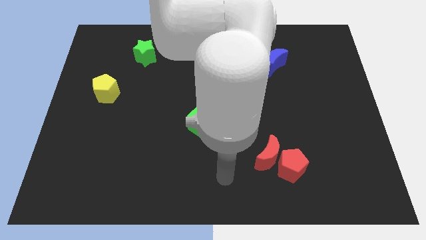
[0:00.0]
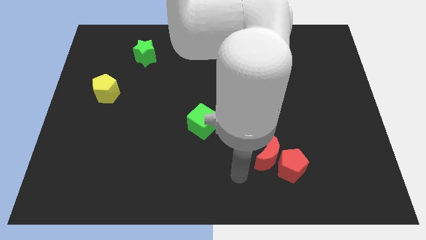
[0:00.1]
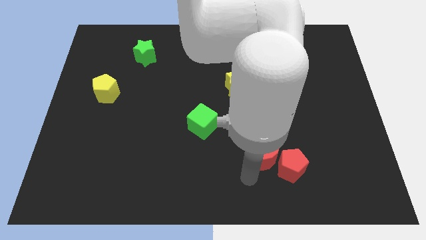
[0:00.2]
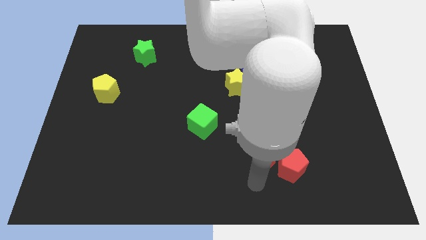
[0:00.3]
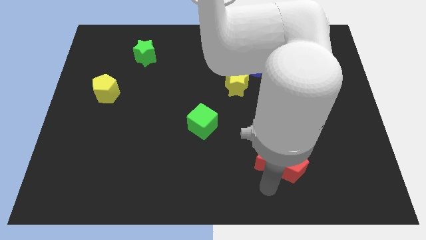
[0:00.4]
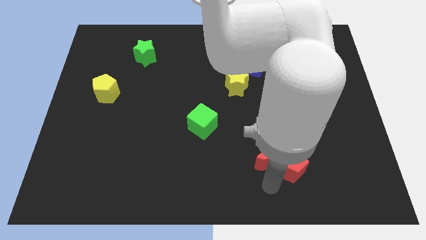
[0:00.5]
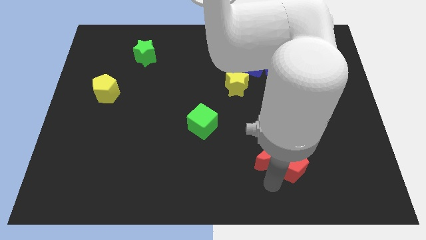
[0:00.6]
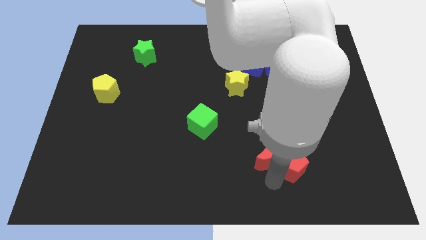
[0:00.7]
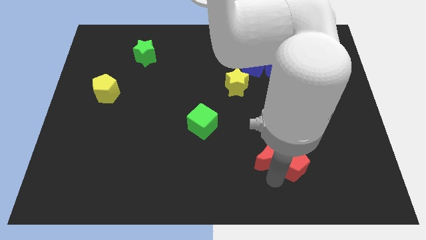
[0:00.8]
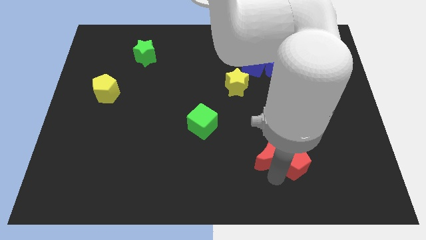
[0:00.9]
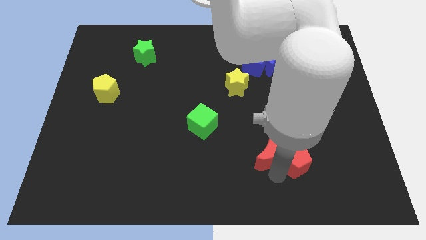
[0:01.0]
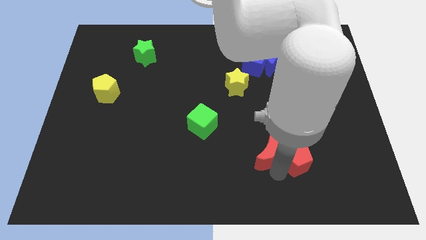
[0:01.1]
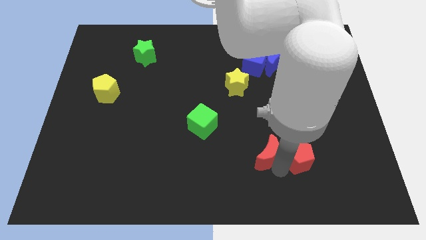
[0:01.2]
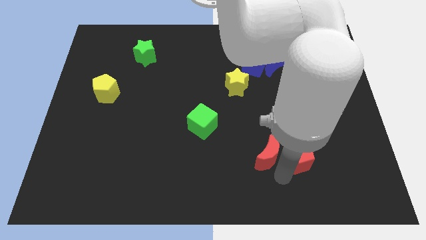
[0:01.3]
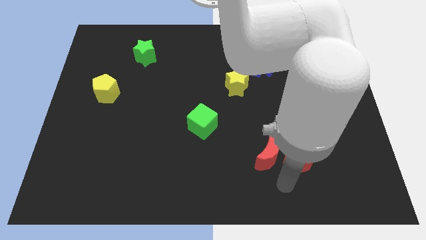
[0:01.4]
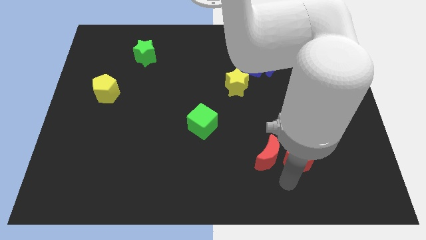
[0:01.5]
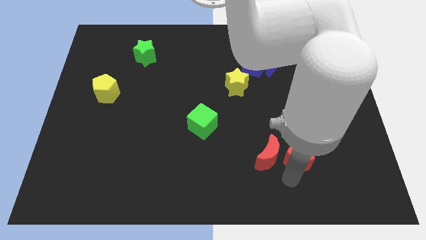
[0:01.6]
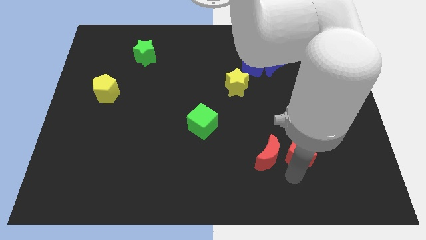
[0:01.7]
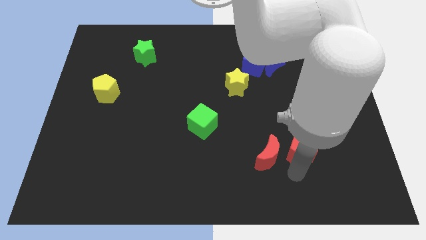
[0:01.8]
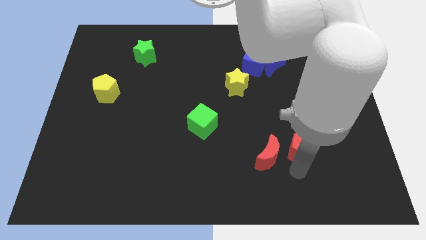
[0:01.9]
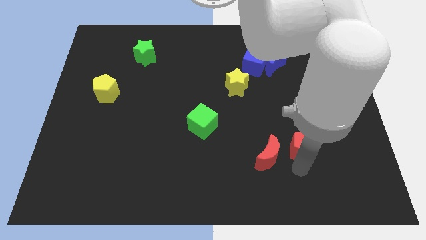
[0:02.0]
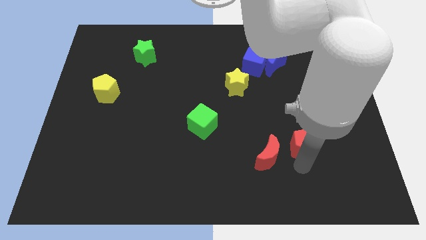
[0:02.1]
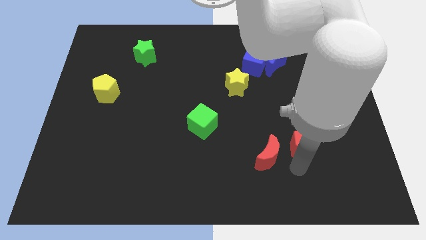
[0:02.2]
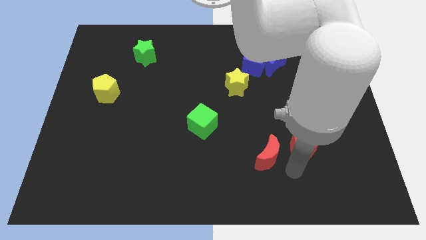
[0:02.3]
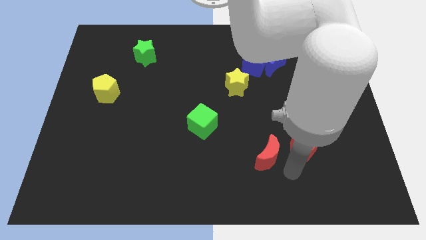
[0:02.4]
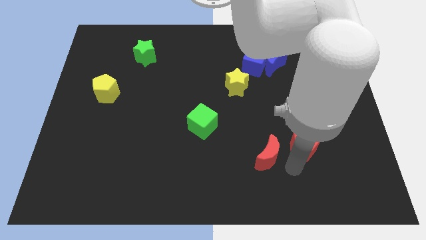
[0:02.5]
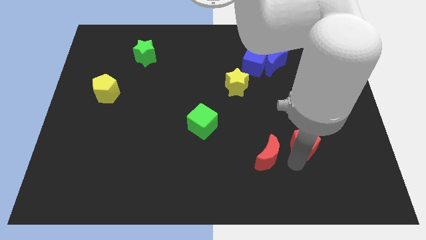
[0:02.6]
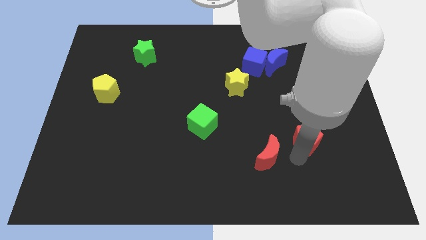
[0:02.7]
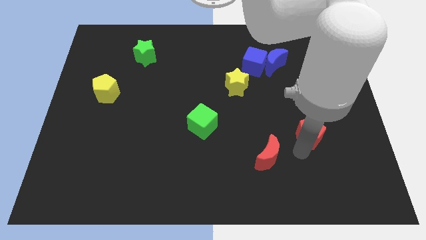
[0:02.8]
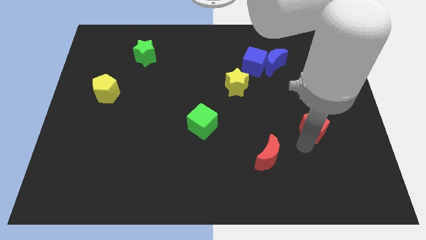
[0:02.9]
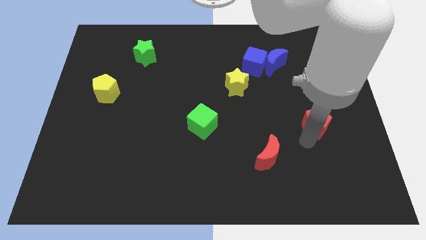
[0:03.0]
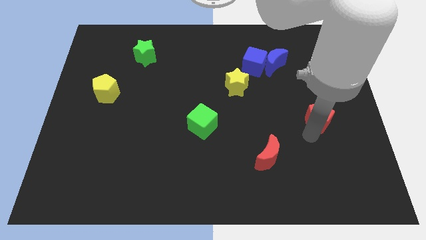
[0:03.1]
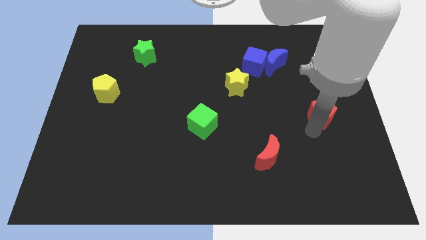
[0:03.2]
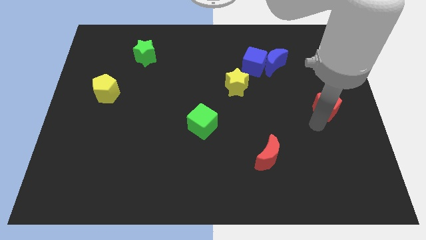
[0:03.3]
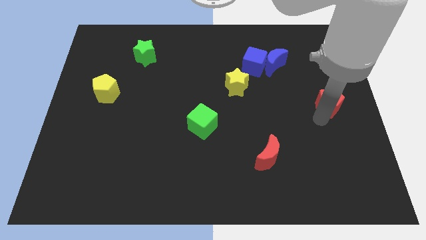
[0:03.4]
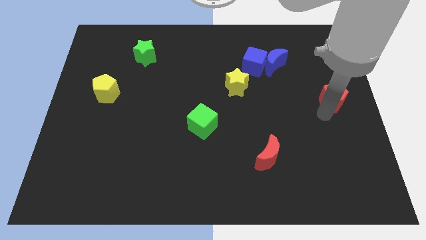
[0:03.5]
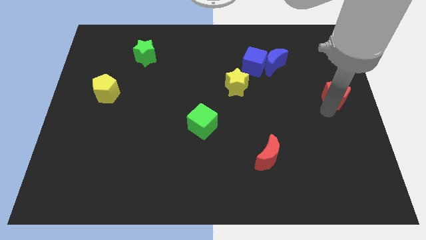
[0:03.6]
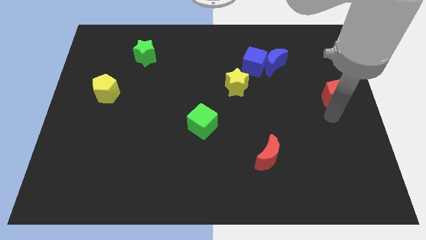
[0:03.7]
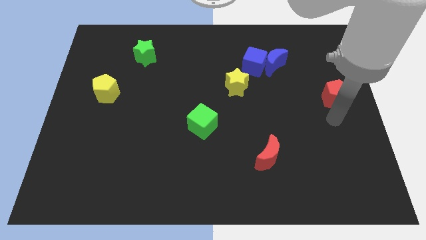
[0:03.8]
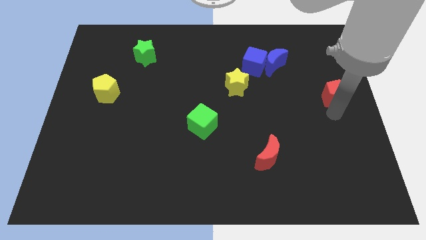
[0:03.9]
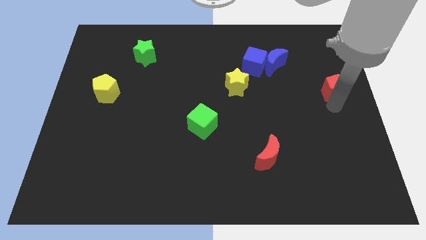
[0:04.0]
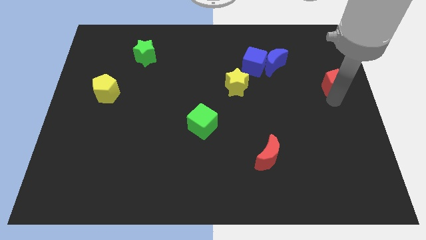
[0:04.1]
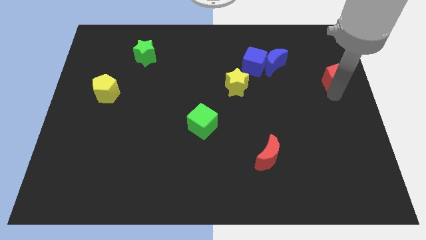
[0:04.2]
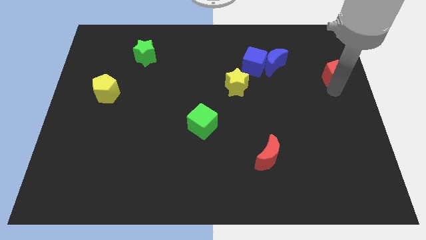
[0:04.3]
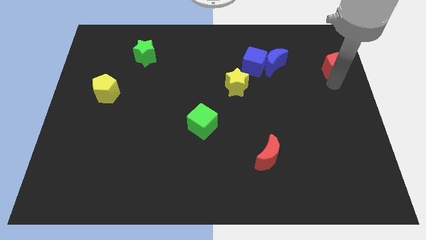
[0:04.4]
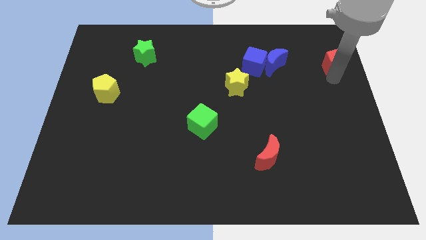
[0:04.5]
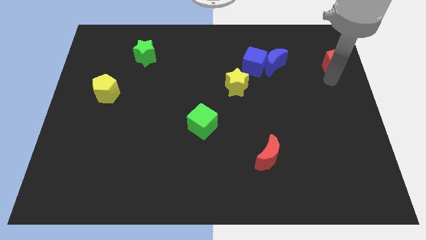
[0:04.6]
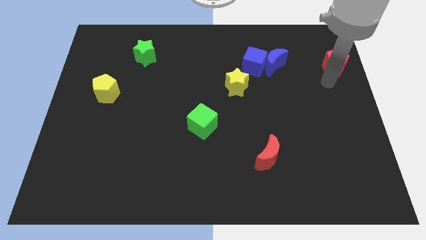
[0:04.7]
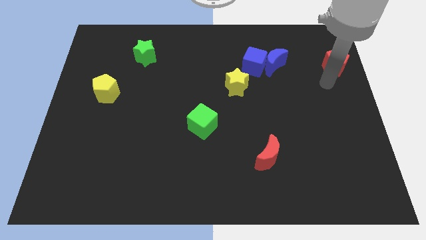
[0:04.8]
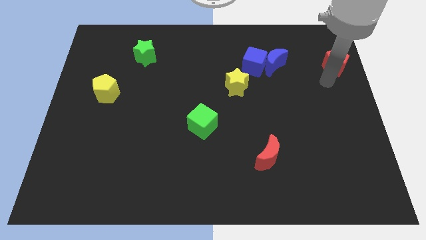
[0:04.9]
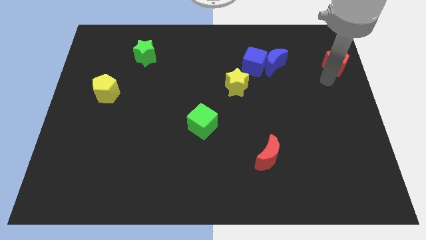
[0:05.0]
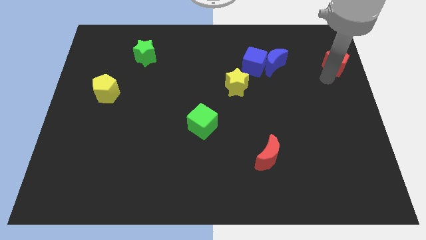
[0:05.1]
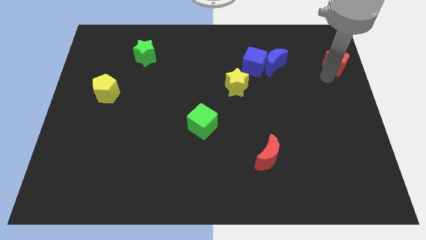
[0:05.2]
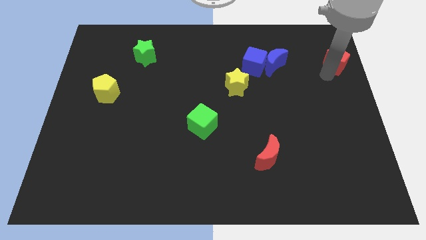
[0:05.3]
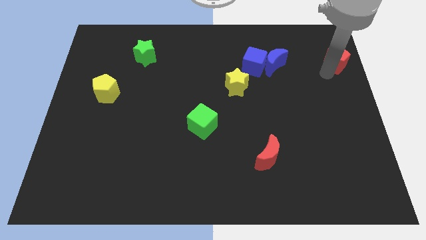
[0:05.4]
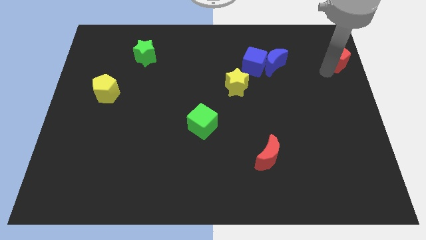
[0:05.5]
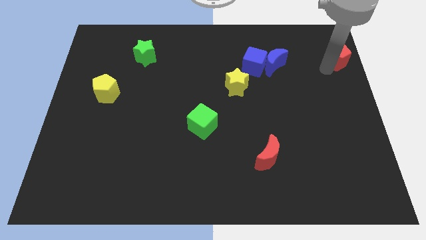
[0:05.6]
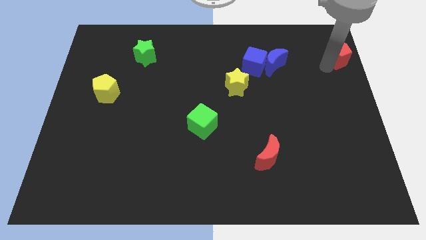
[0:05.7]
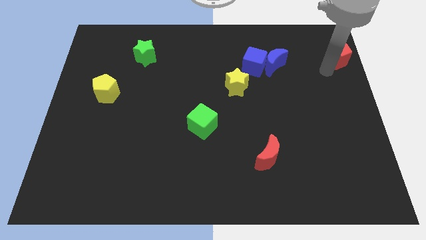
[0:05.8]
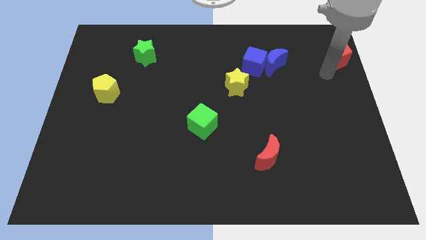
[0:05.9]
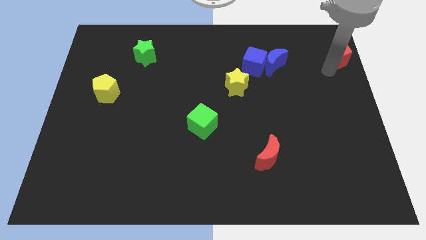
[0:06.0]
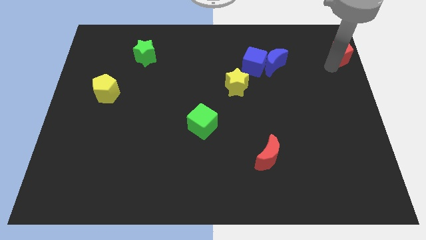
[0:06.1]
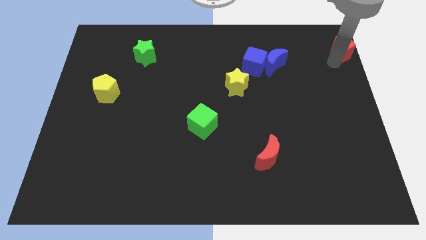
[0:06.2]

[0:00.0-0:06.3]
move the red pentagon to the top right
